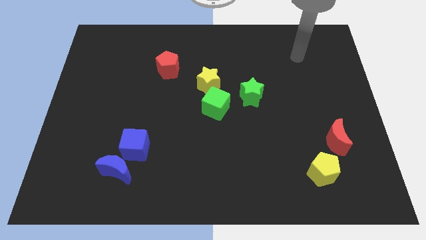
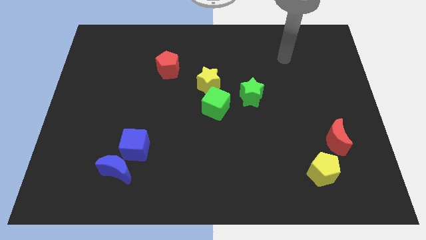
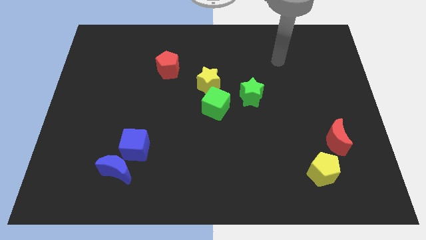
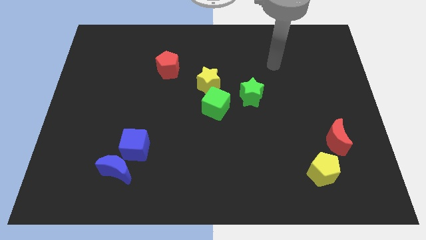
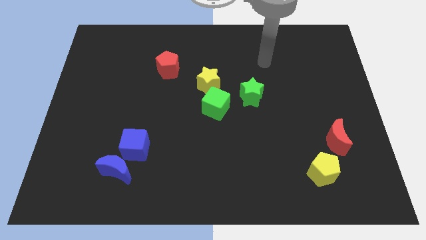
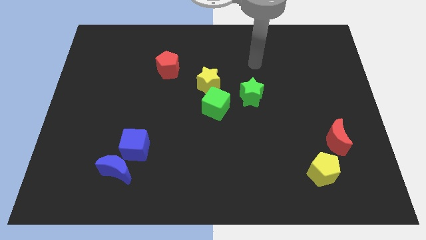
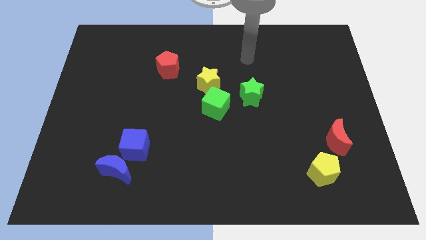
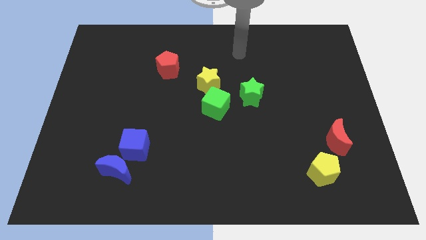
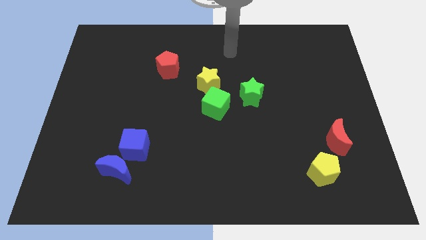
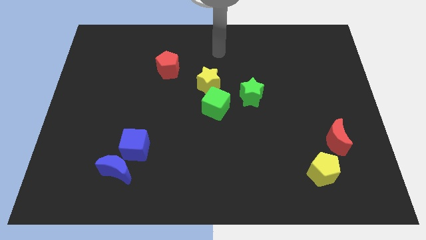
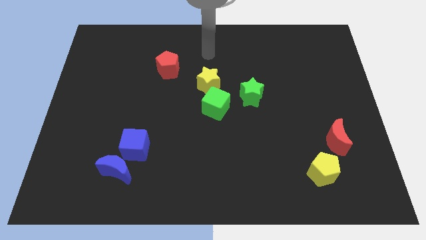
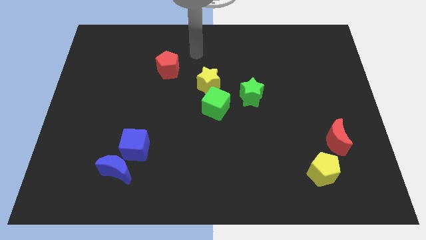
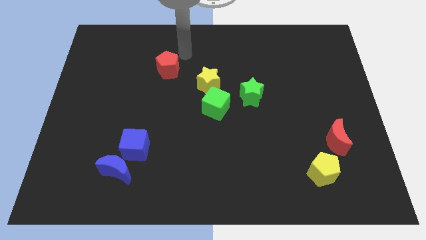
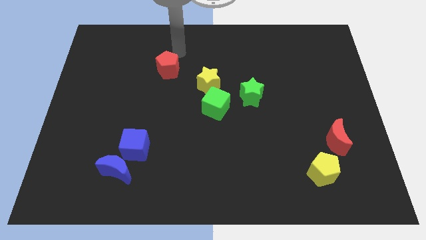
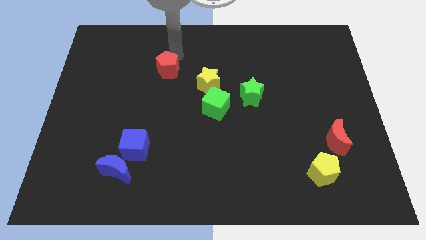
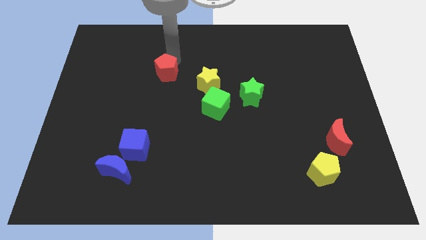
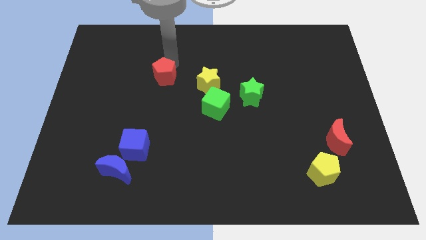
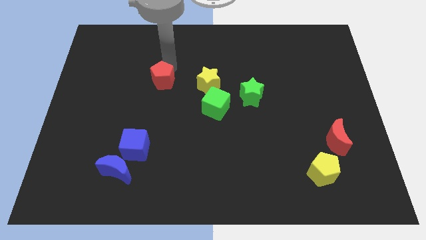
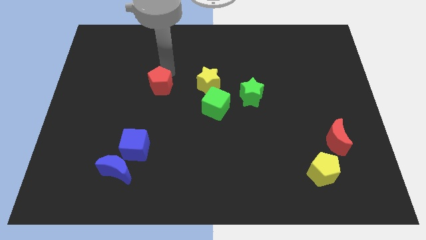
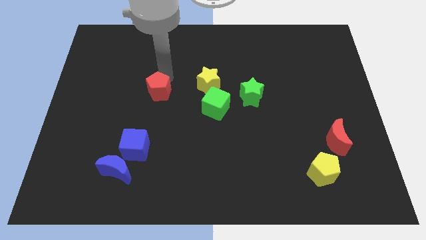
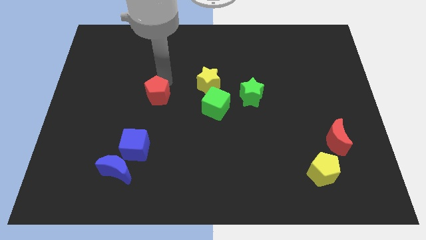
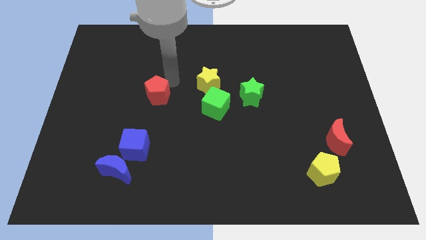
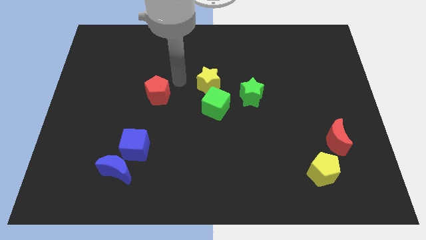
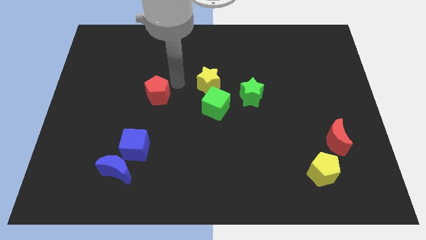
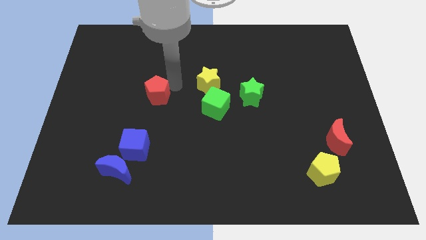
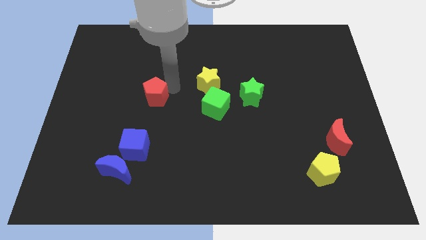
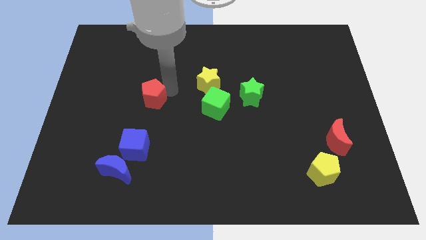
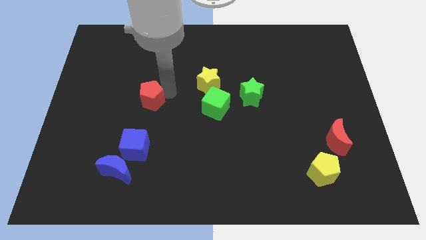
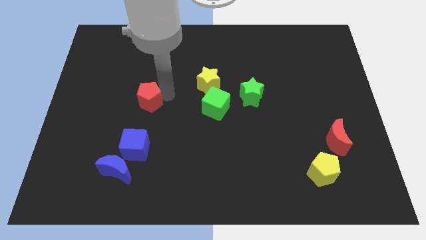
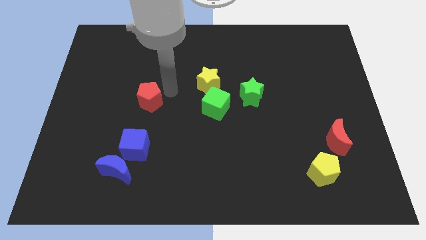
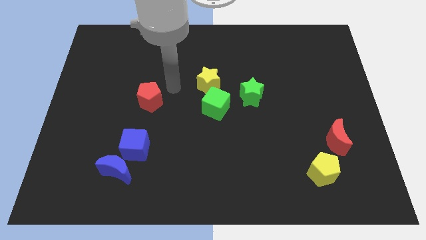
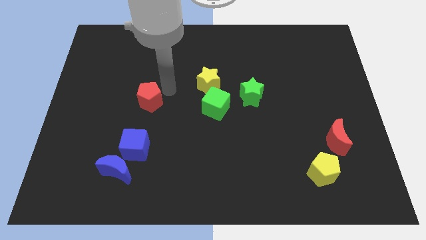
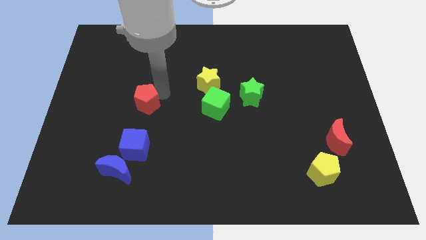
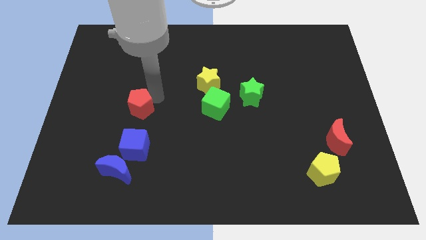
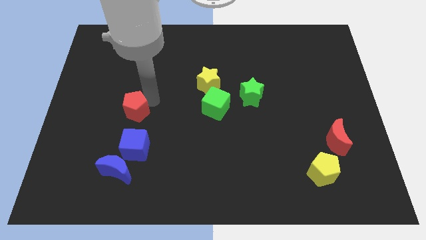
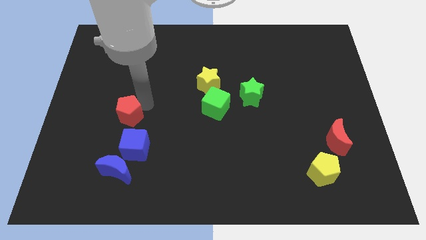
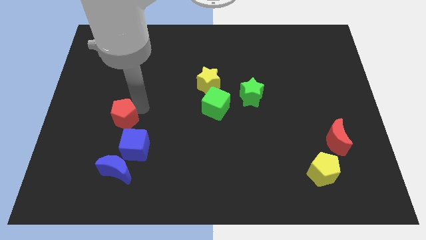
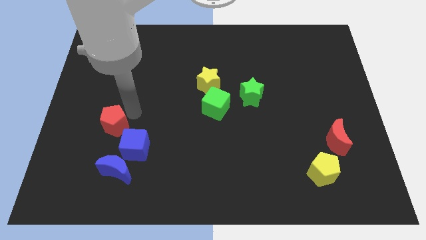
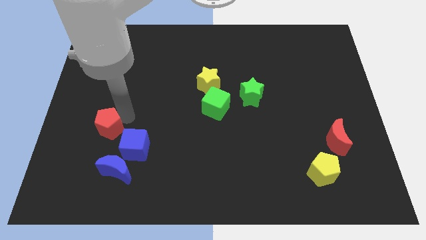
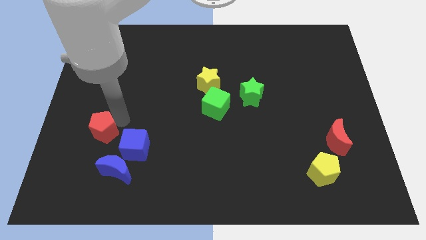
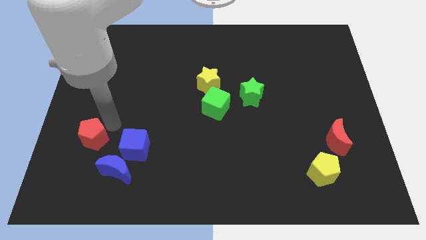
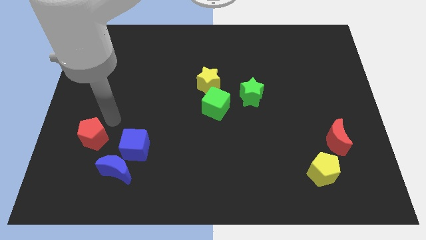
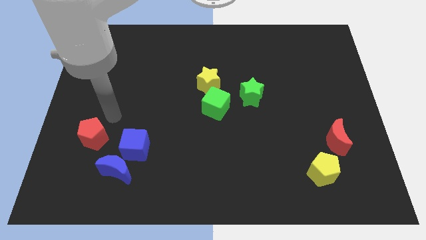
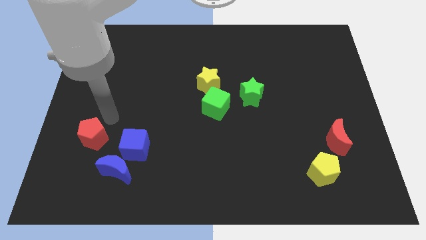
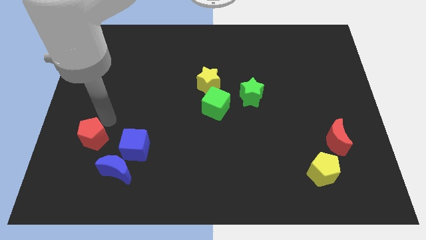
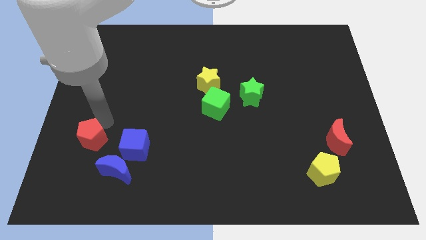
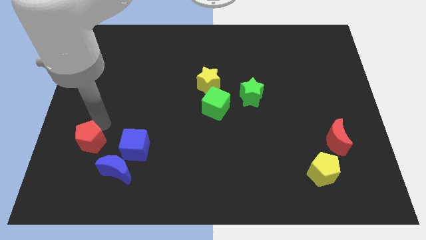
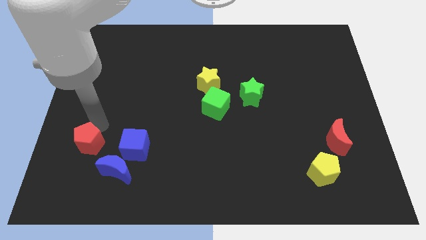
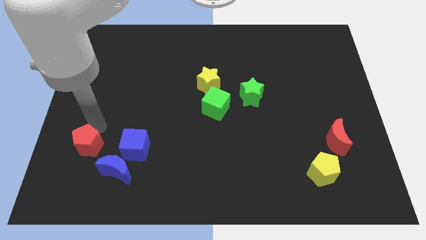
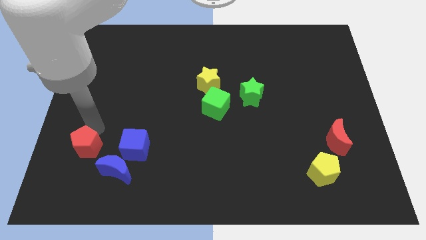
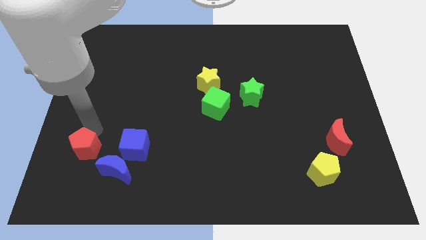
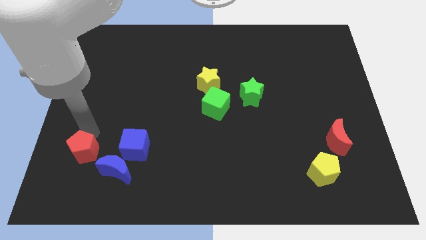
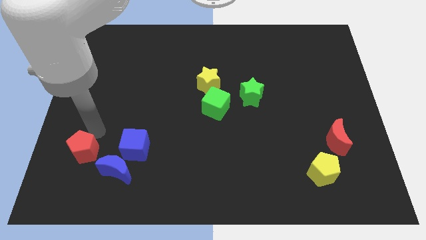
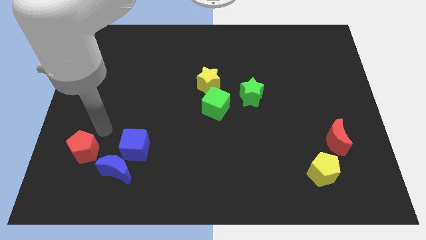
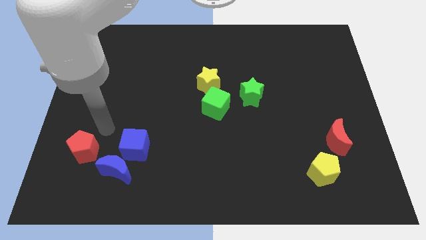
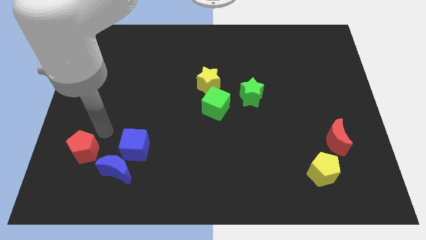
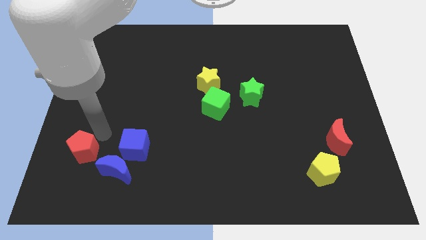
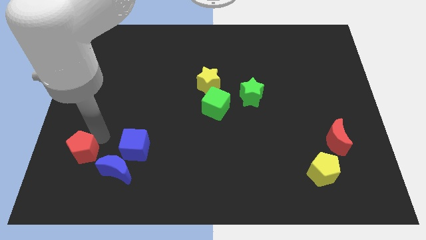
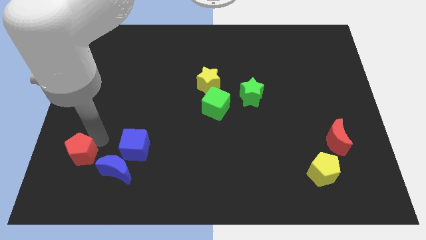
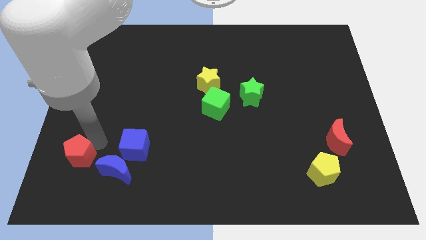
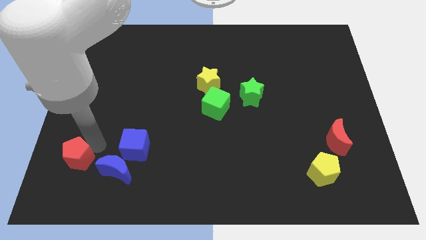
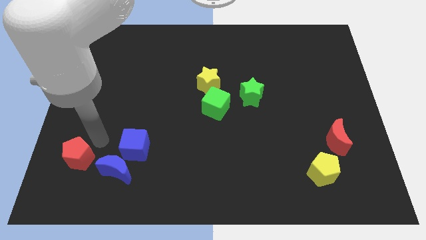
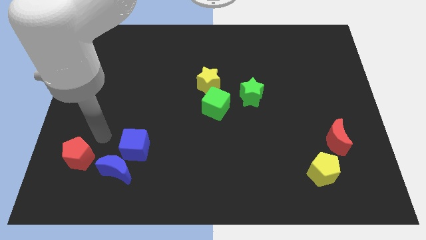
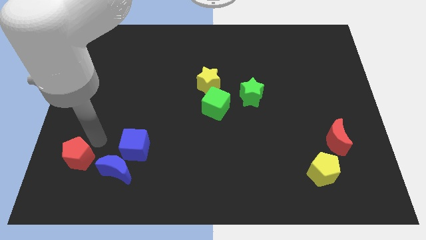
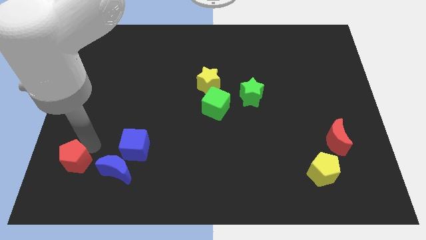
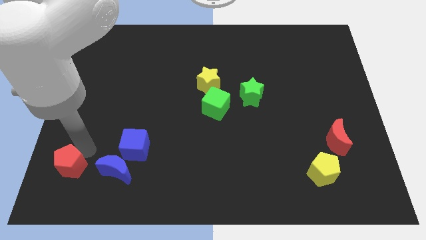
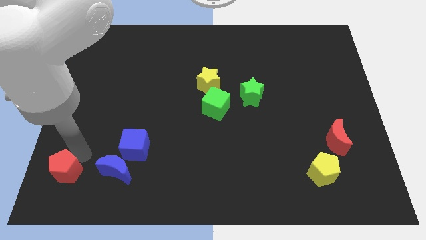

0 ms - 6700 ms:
slide the red pentagon to the bottom left corner
